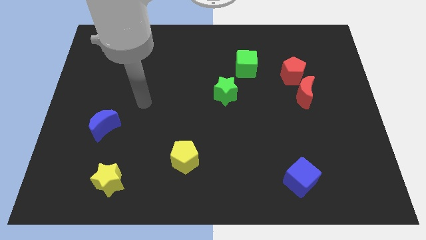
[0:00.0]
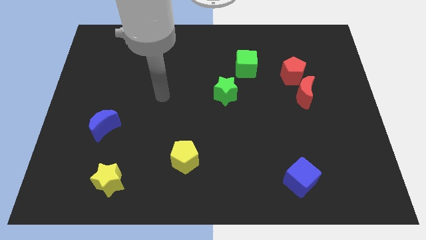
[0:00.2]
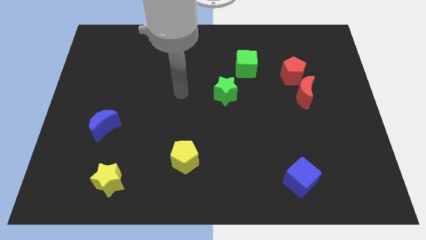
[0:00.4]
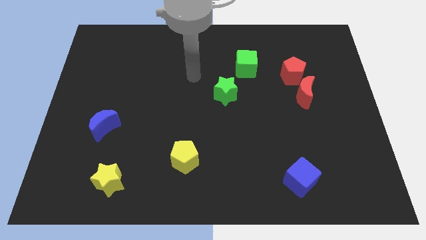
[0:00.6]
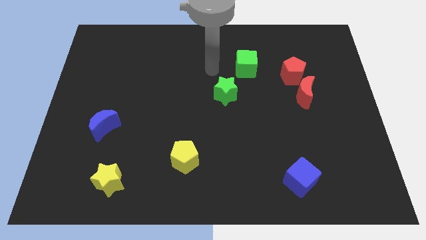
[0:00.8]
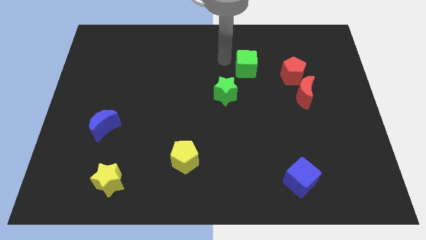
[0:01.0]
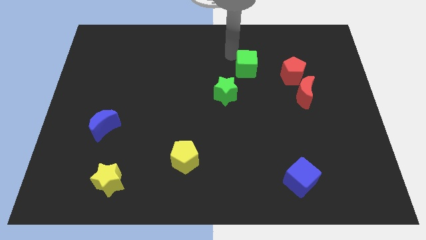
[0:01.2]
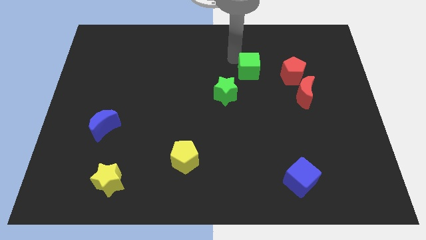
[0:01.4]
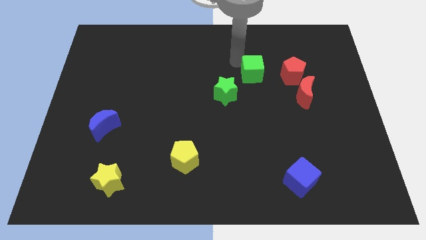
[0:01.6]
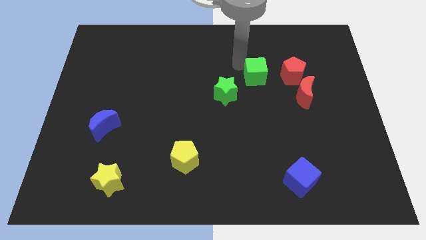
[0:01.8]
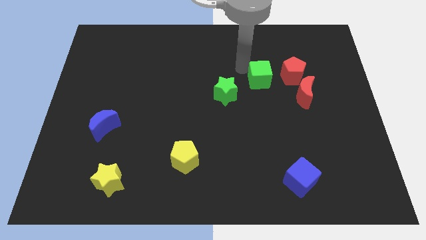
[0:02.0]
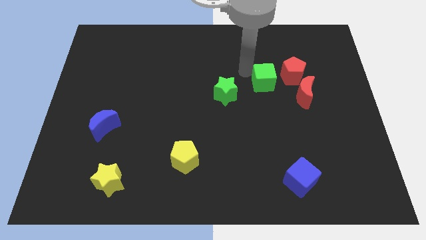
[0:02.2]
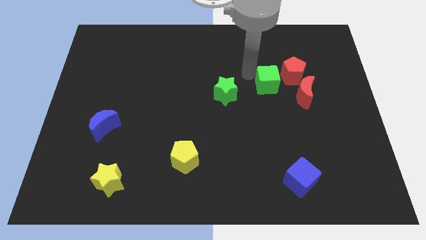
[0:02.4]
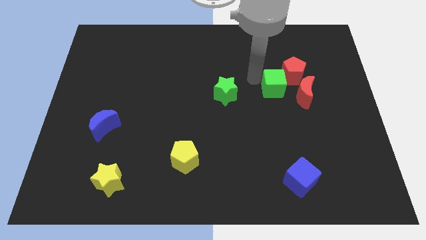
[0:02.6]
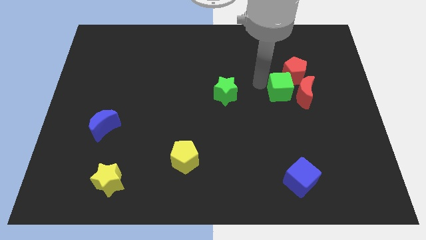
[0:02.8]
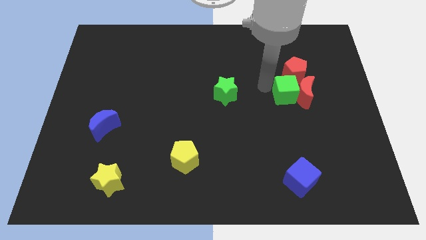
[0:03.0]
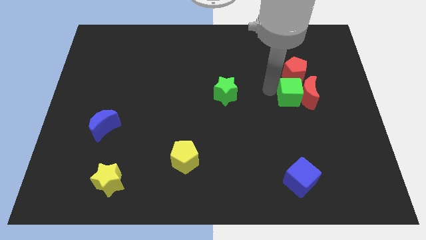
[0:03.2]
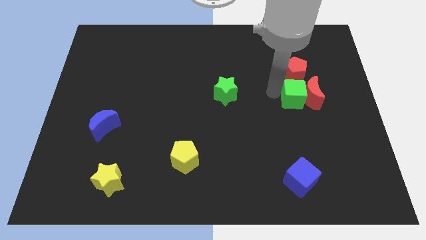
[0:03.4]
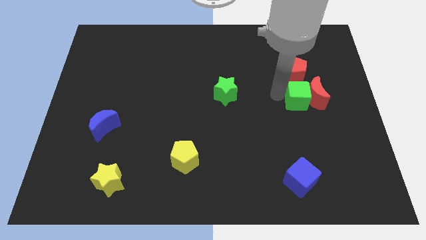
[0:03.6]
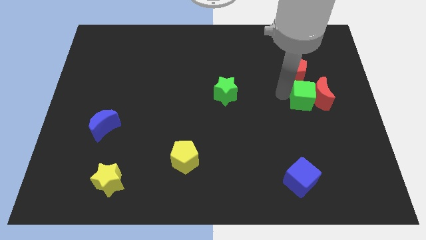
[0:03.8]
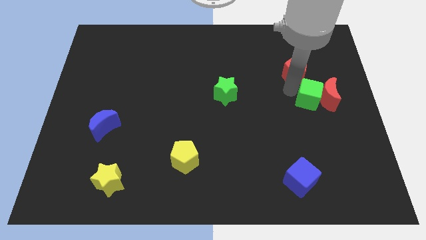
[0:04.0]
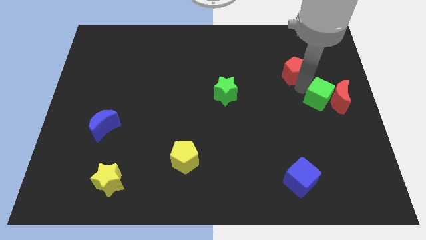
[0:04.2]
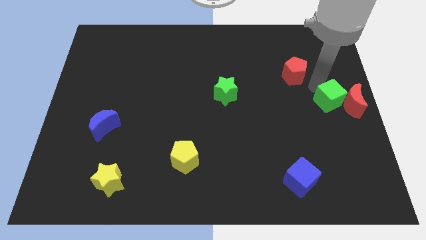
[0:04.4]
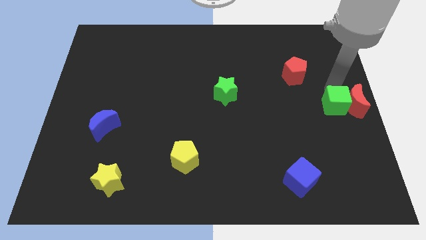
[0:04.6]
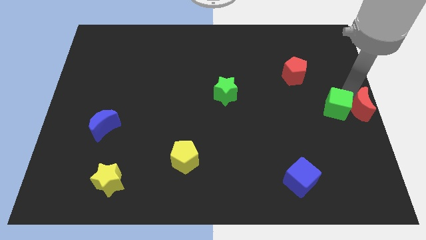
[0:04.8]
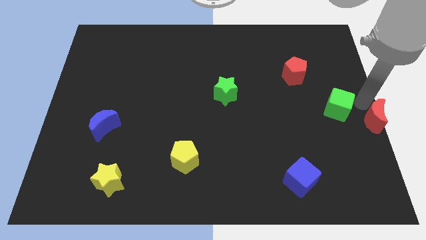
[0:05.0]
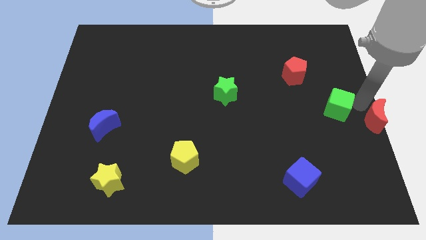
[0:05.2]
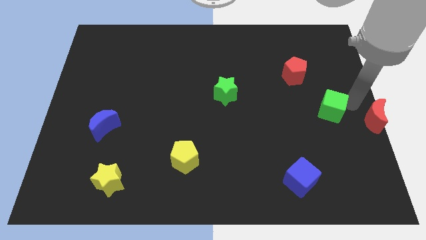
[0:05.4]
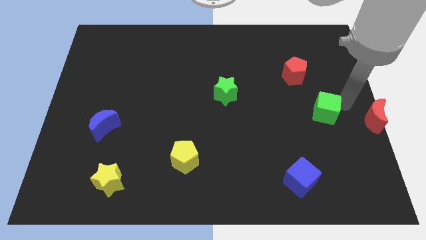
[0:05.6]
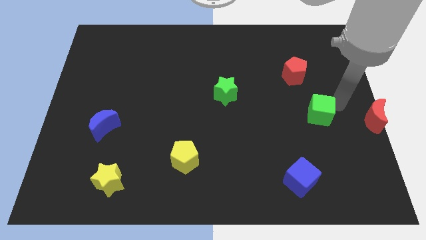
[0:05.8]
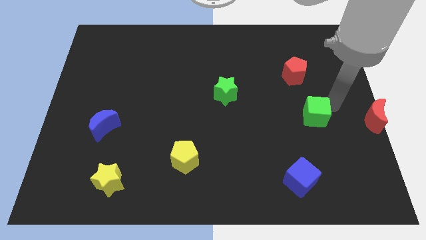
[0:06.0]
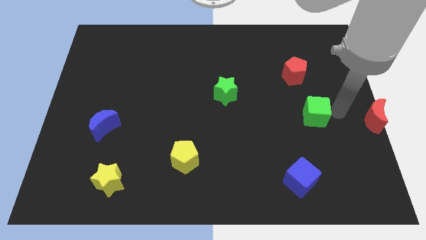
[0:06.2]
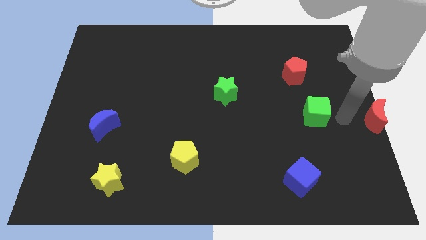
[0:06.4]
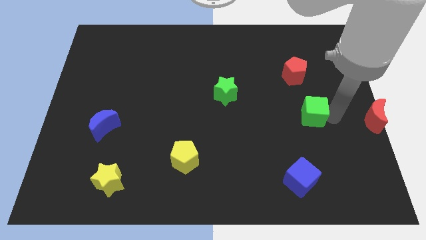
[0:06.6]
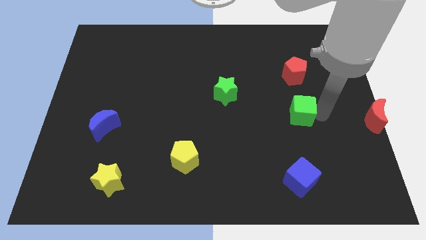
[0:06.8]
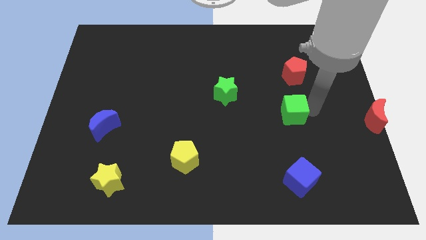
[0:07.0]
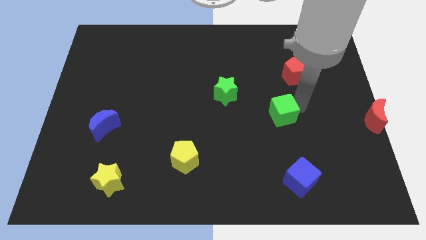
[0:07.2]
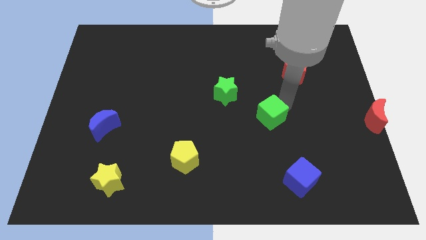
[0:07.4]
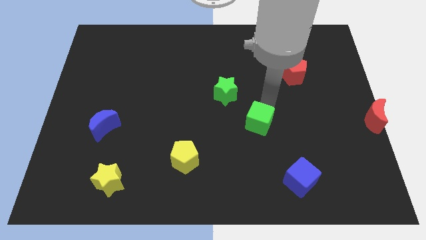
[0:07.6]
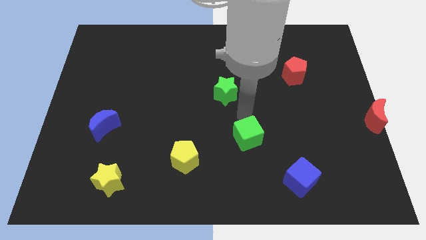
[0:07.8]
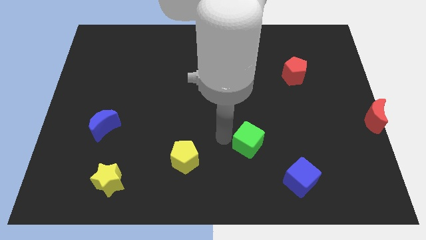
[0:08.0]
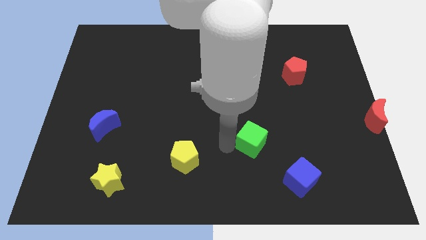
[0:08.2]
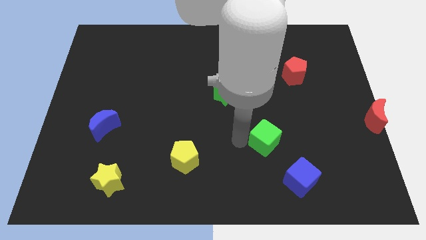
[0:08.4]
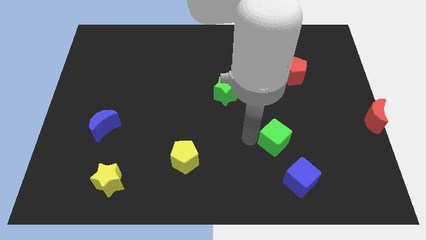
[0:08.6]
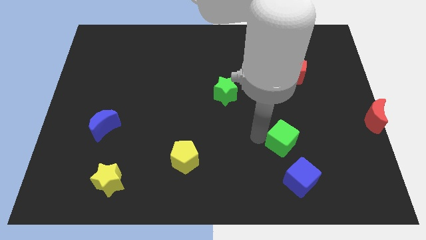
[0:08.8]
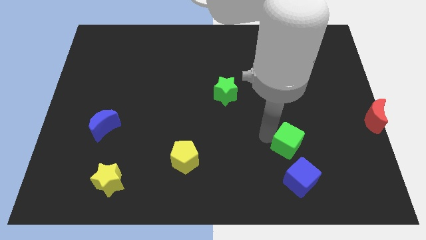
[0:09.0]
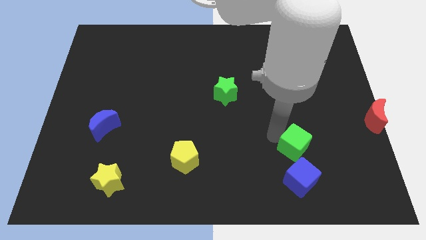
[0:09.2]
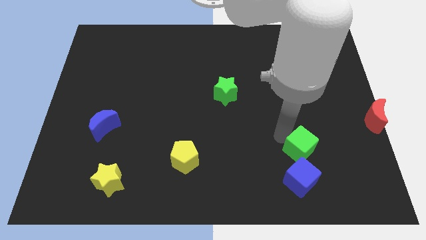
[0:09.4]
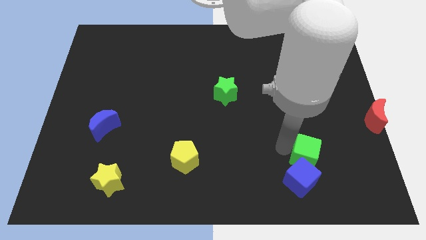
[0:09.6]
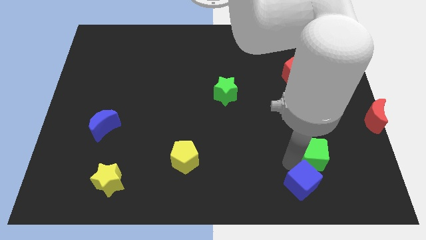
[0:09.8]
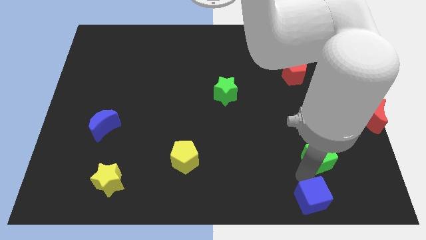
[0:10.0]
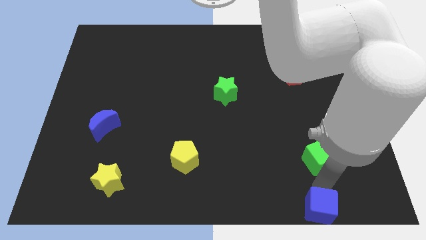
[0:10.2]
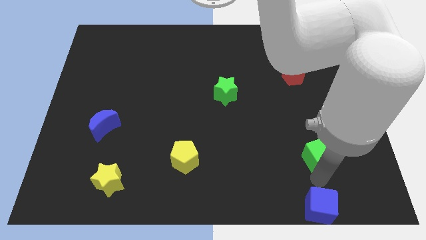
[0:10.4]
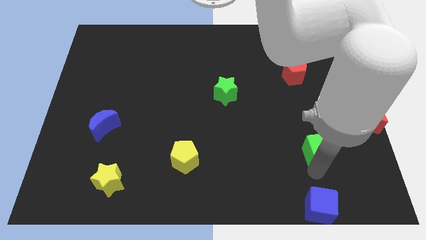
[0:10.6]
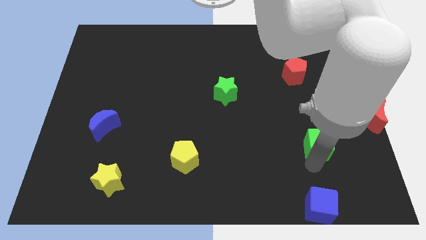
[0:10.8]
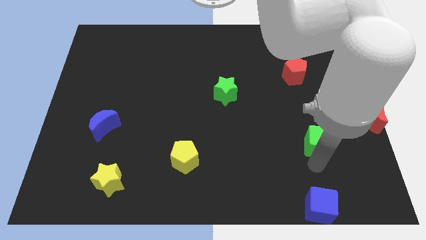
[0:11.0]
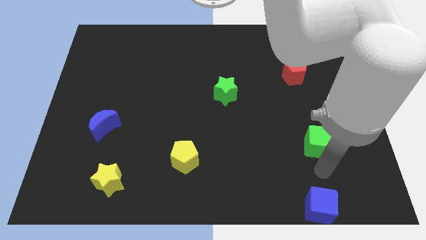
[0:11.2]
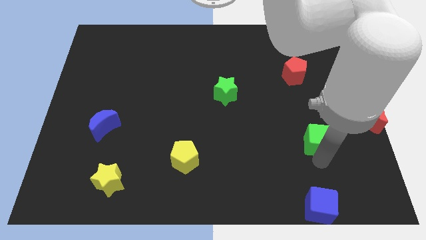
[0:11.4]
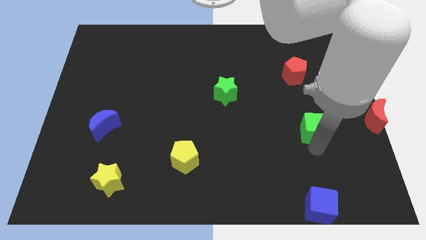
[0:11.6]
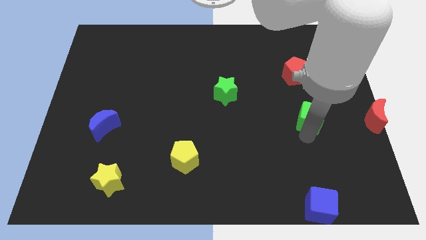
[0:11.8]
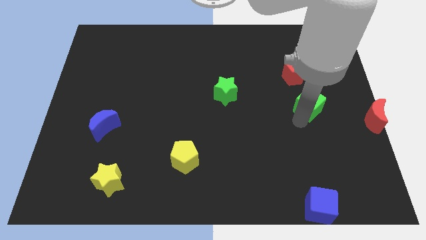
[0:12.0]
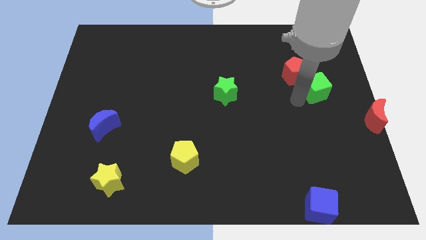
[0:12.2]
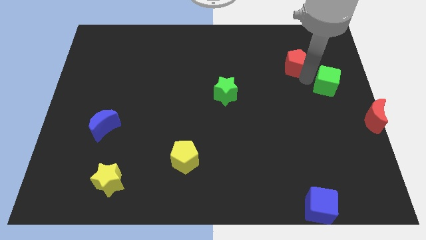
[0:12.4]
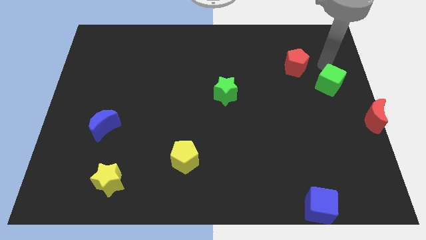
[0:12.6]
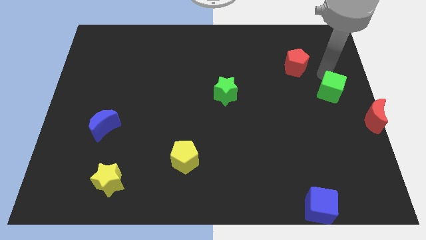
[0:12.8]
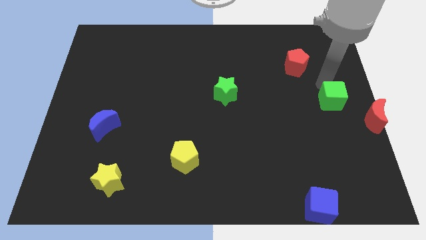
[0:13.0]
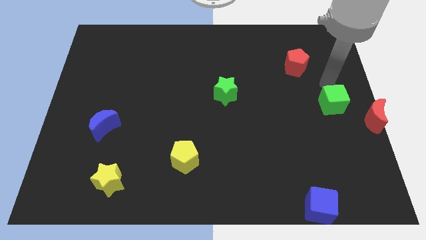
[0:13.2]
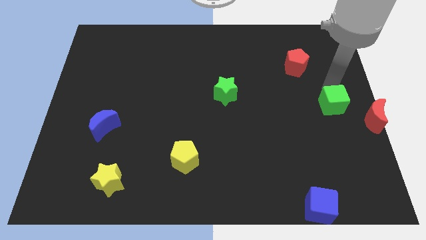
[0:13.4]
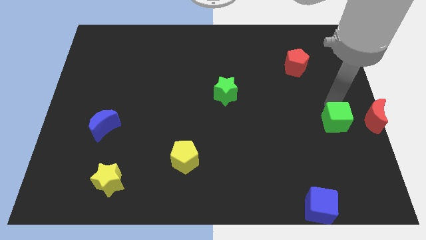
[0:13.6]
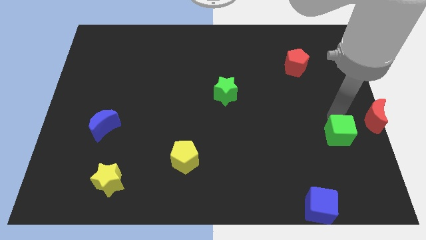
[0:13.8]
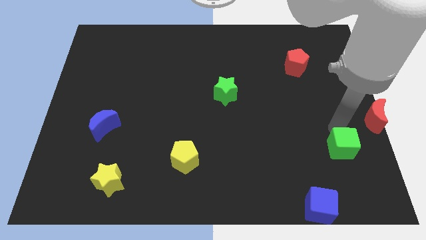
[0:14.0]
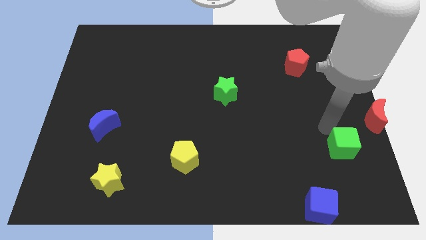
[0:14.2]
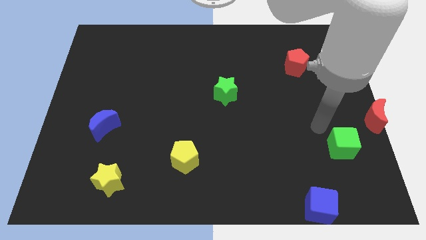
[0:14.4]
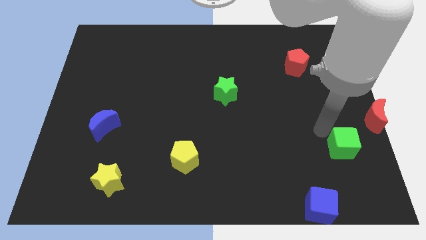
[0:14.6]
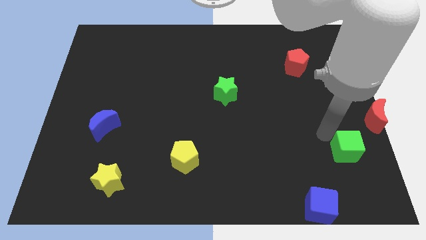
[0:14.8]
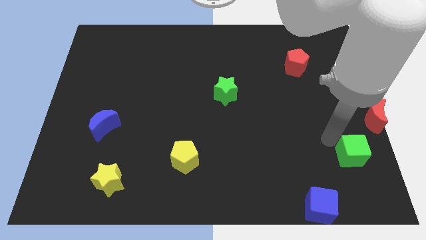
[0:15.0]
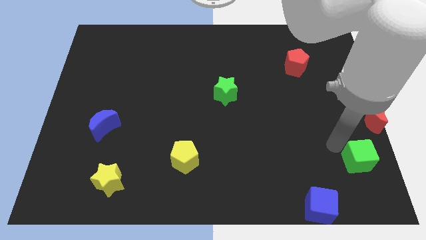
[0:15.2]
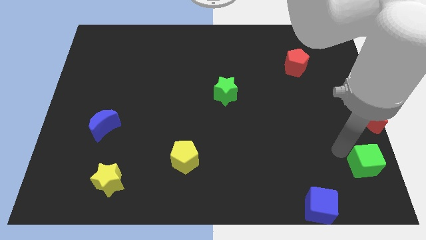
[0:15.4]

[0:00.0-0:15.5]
put the green cube to the bottom right
